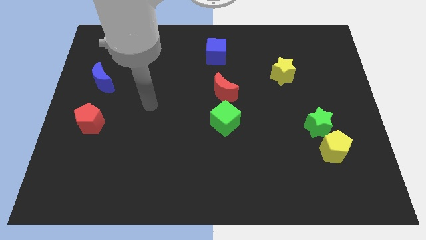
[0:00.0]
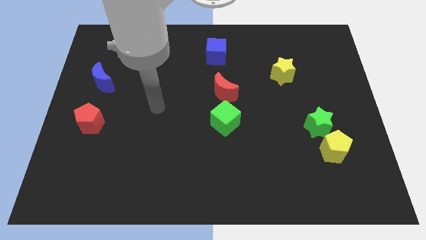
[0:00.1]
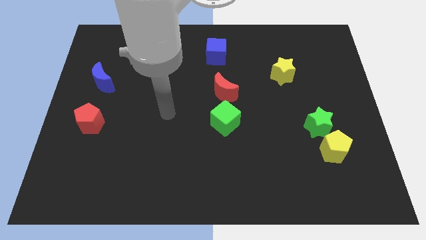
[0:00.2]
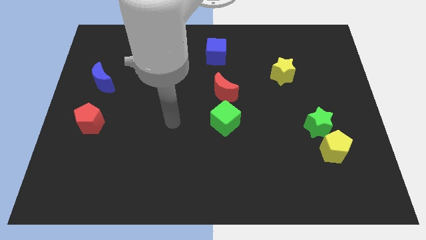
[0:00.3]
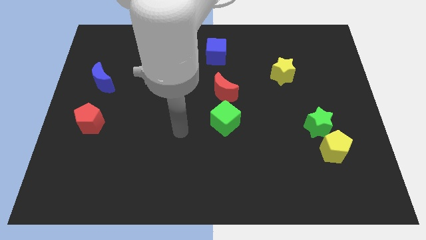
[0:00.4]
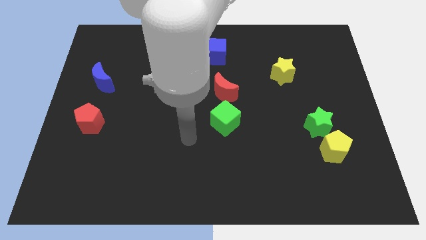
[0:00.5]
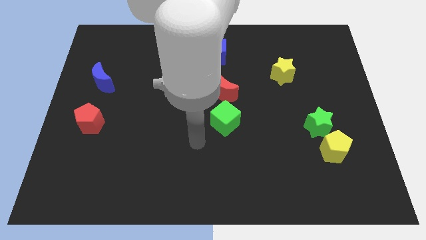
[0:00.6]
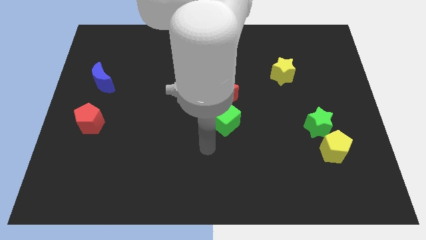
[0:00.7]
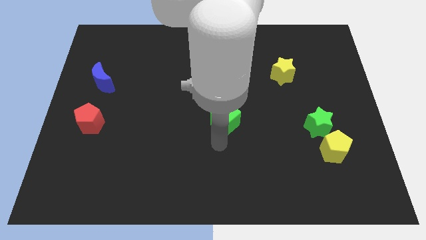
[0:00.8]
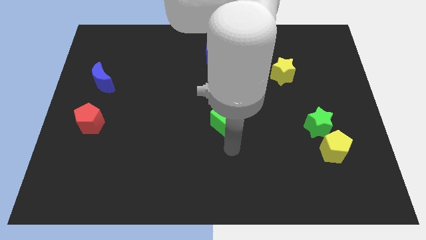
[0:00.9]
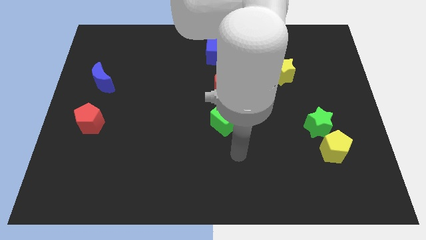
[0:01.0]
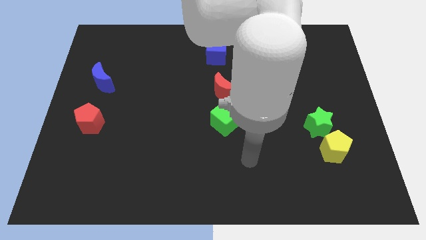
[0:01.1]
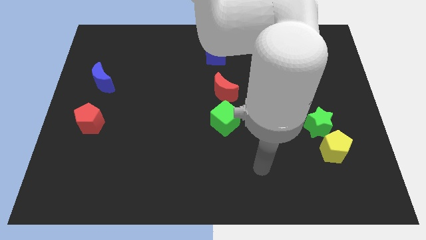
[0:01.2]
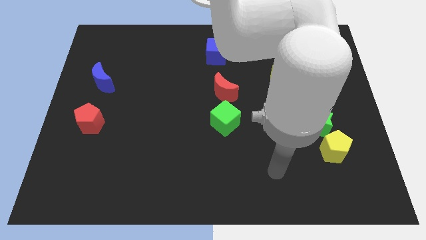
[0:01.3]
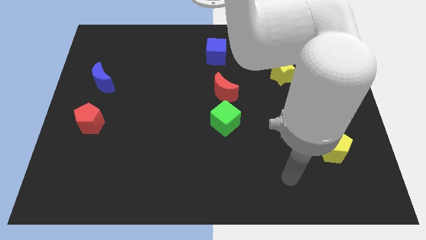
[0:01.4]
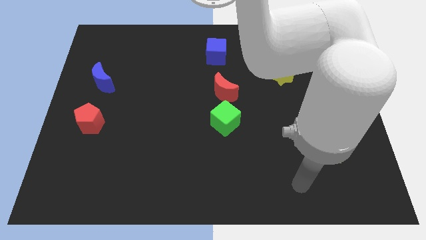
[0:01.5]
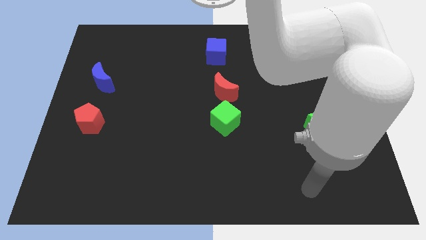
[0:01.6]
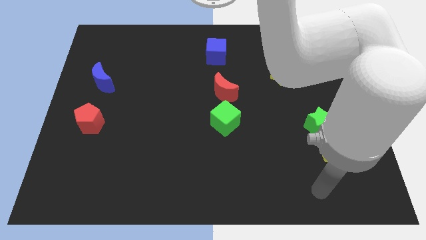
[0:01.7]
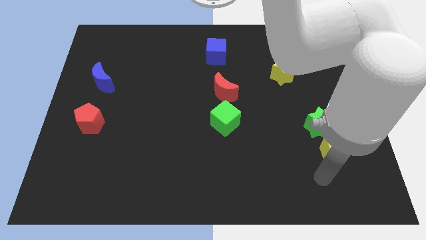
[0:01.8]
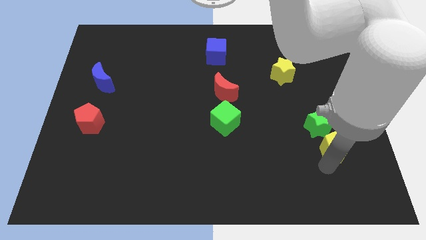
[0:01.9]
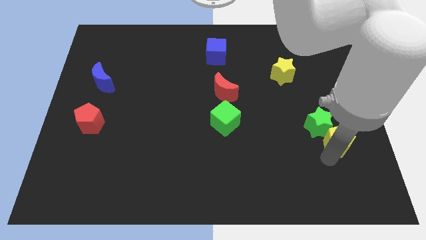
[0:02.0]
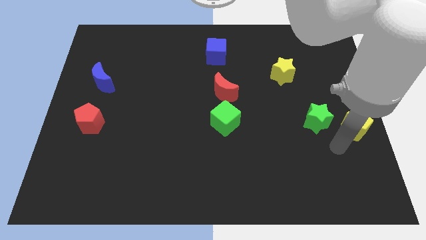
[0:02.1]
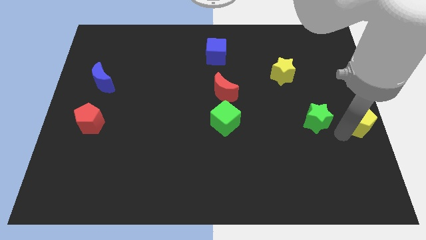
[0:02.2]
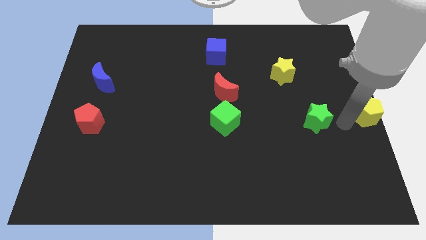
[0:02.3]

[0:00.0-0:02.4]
move the green star away from the yellow pentagon

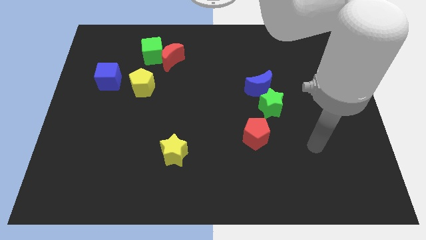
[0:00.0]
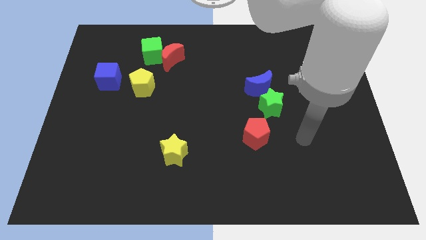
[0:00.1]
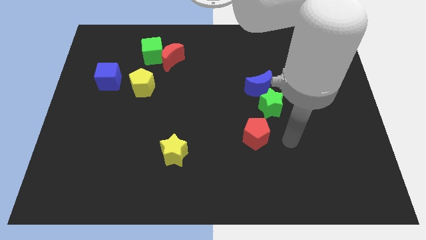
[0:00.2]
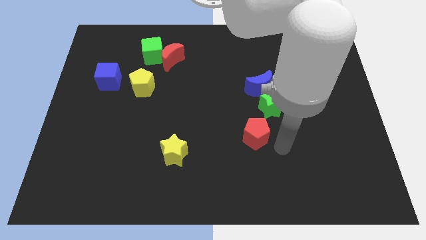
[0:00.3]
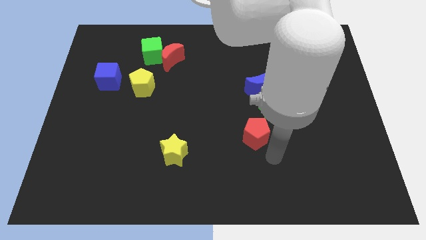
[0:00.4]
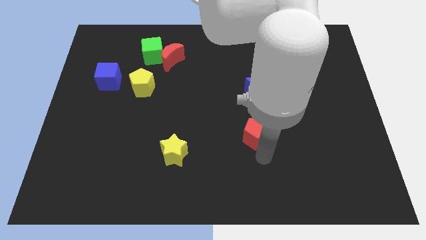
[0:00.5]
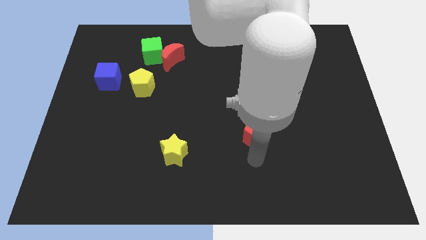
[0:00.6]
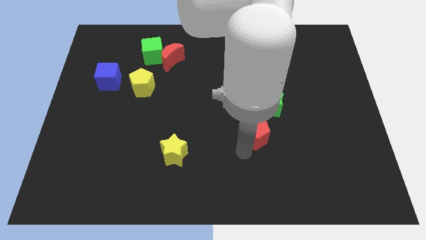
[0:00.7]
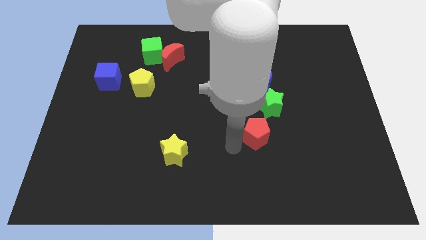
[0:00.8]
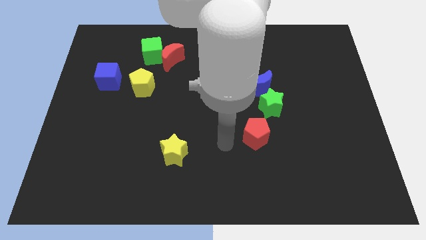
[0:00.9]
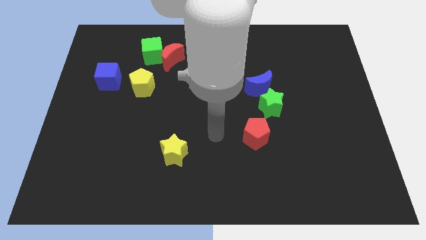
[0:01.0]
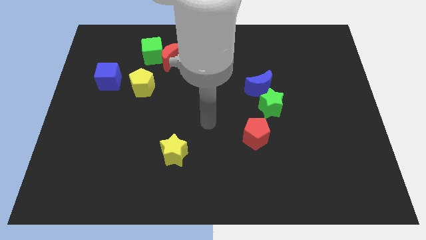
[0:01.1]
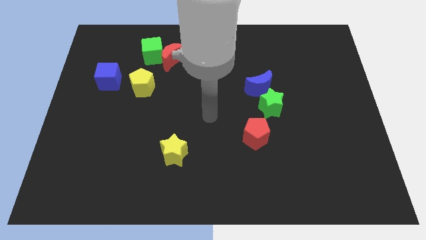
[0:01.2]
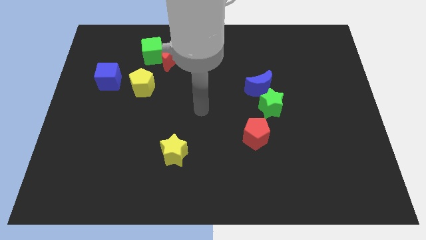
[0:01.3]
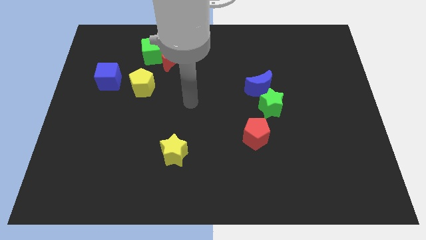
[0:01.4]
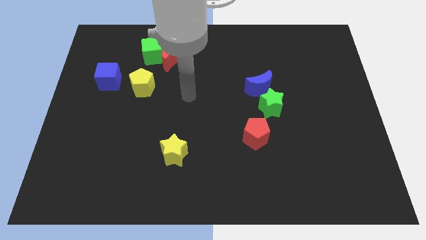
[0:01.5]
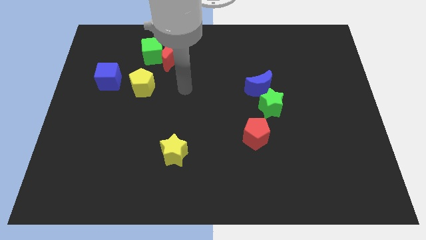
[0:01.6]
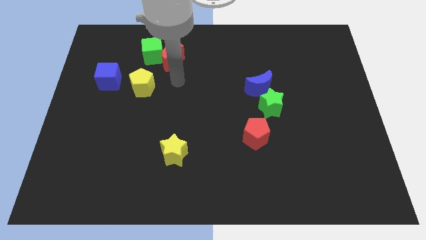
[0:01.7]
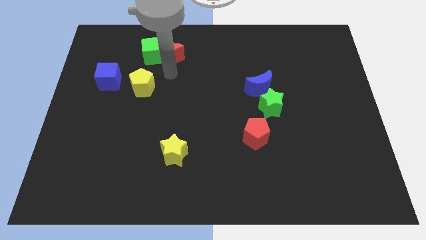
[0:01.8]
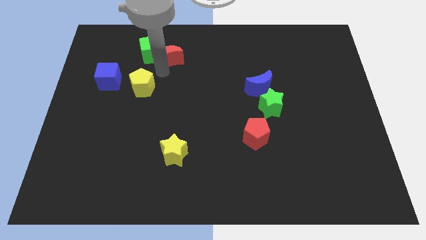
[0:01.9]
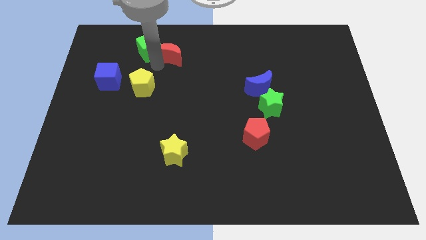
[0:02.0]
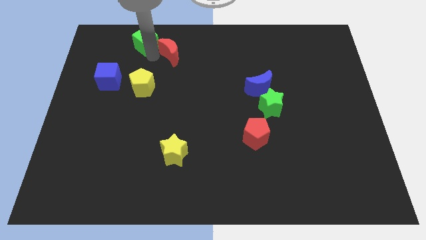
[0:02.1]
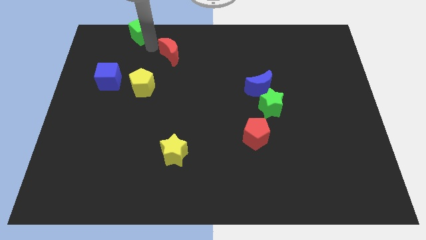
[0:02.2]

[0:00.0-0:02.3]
move the red moon away from the green cube

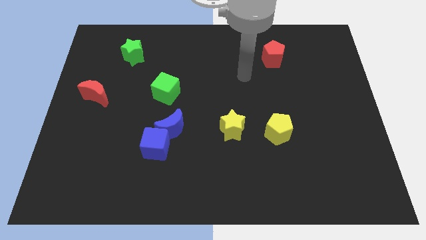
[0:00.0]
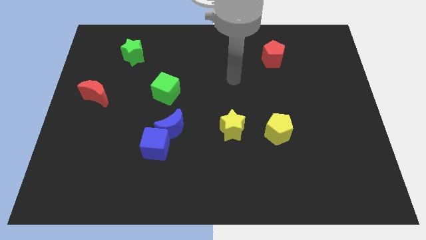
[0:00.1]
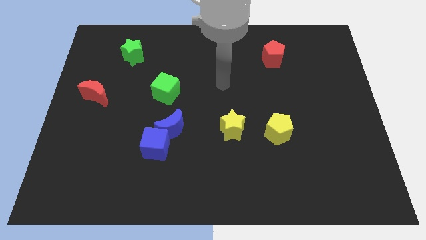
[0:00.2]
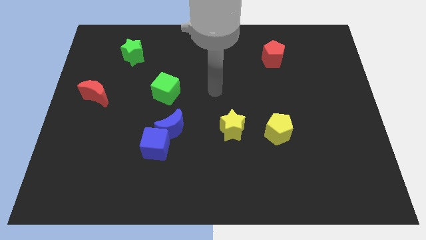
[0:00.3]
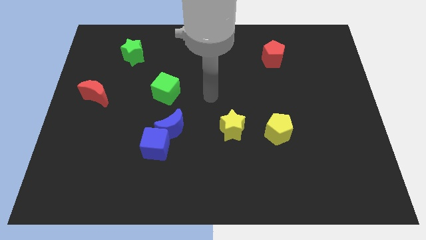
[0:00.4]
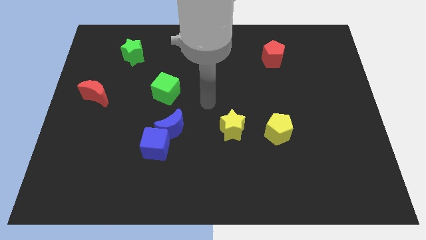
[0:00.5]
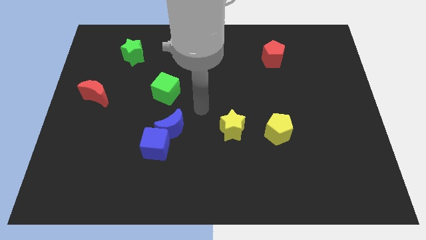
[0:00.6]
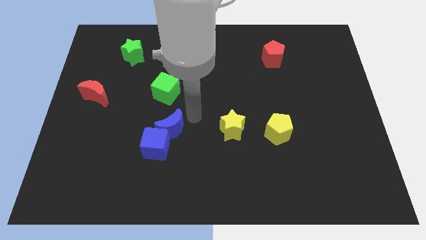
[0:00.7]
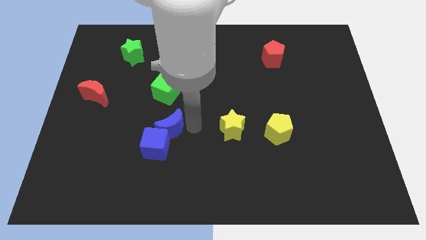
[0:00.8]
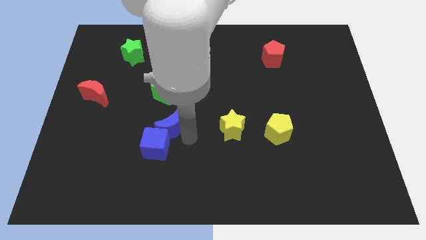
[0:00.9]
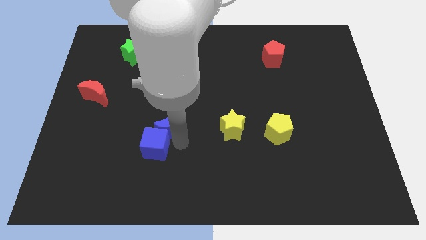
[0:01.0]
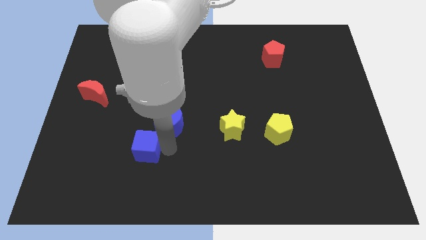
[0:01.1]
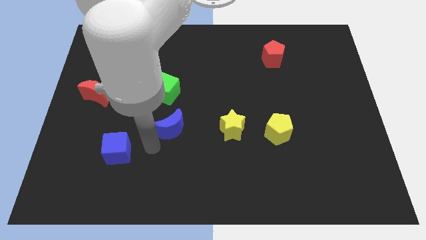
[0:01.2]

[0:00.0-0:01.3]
pull the blue moon apart from the blue cube

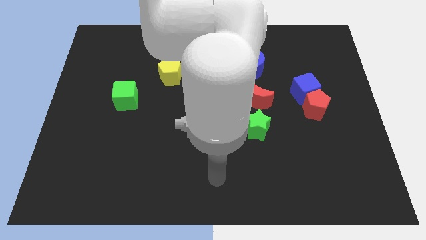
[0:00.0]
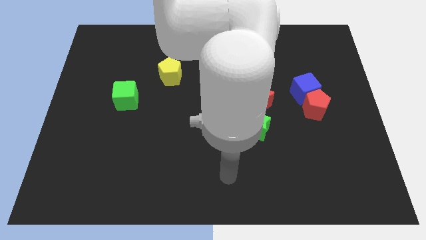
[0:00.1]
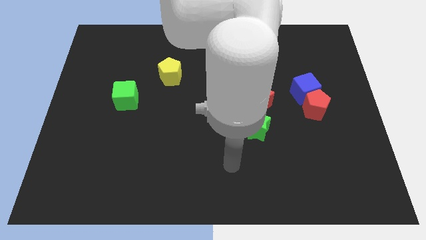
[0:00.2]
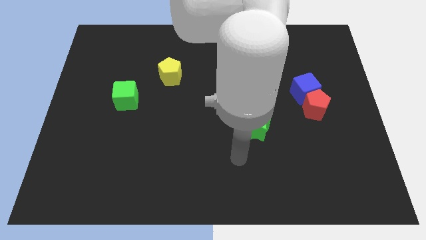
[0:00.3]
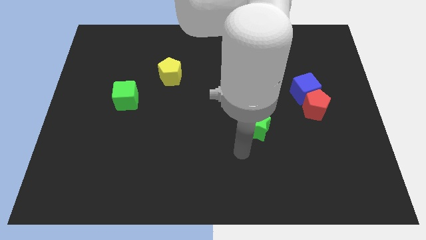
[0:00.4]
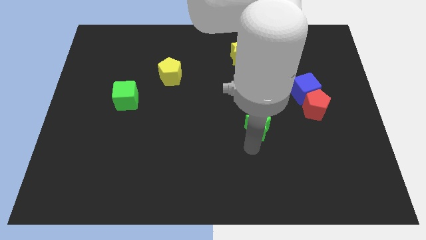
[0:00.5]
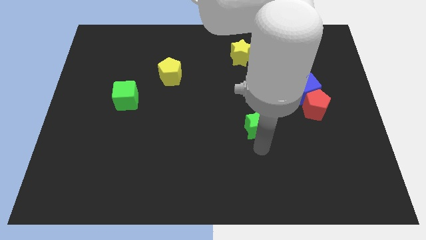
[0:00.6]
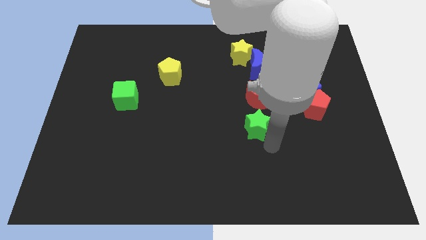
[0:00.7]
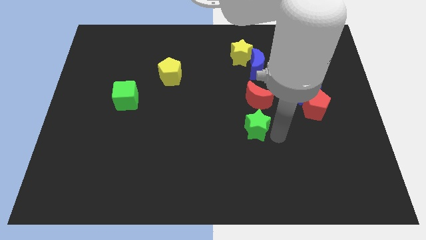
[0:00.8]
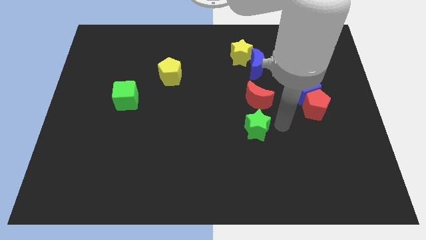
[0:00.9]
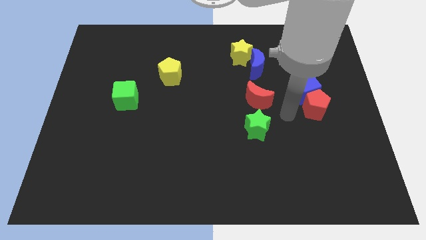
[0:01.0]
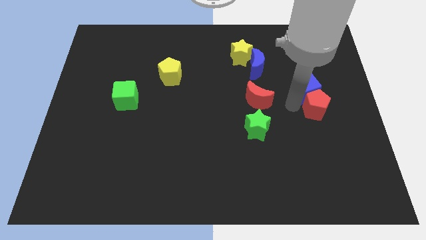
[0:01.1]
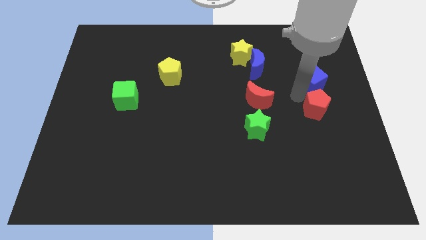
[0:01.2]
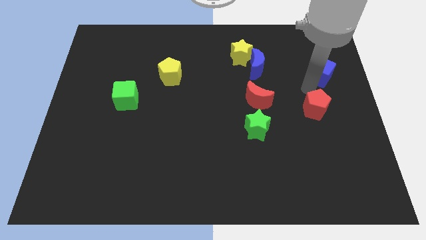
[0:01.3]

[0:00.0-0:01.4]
separate the red pentagon from the blue cube

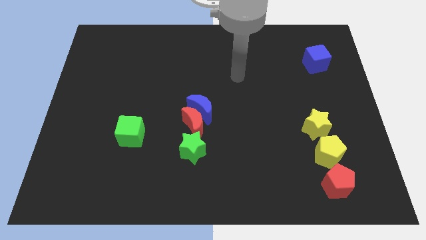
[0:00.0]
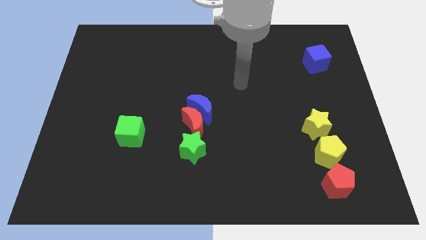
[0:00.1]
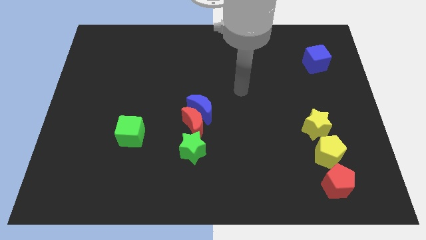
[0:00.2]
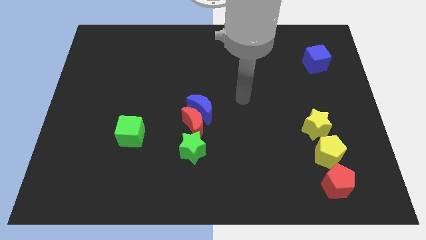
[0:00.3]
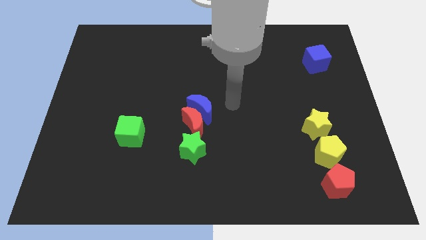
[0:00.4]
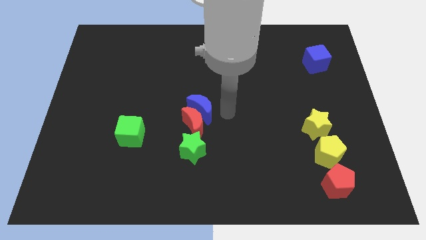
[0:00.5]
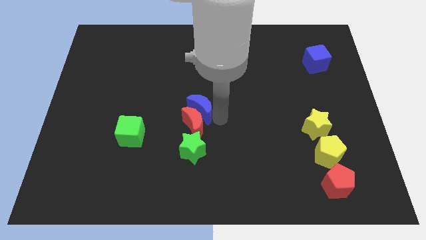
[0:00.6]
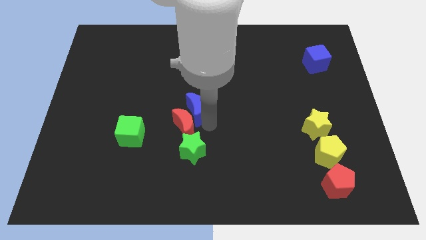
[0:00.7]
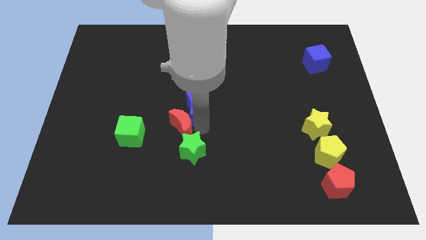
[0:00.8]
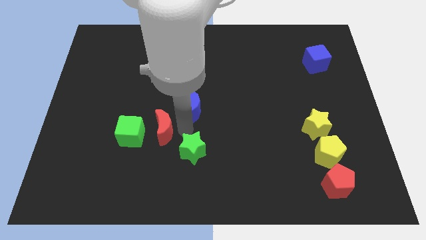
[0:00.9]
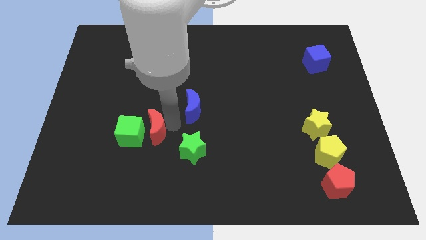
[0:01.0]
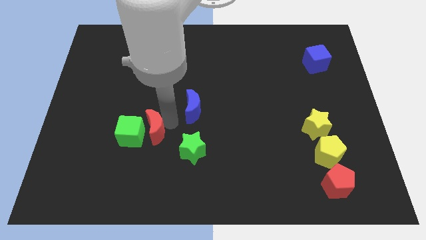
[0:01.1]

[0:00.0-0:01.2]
pull the blue moon apart from the red moon

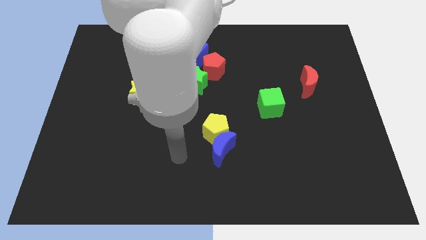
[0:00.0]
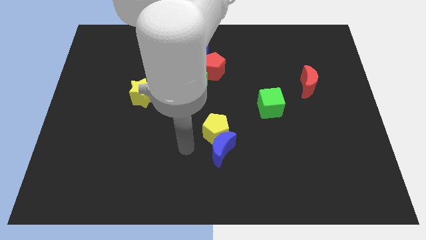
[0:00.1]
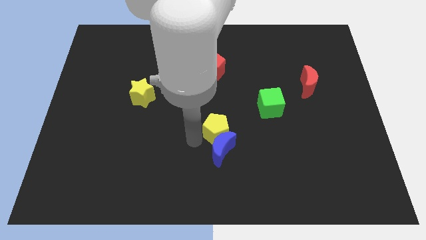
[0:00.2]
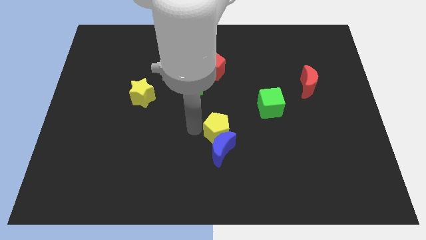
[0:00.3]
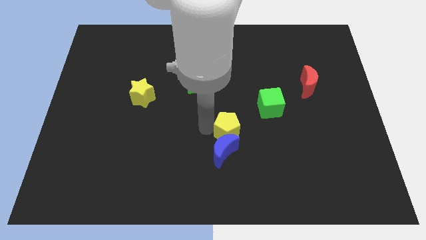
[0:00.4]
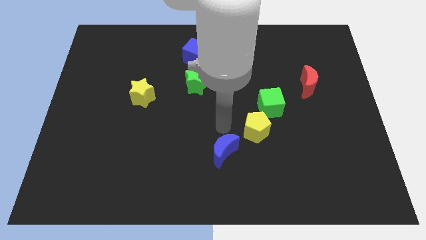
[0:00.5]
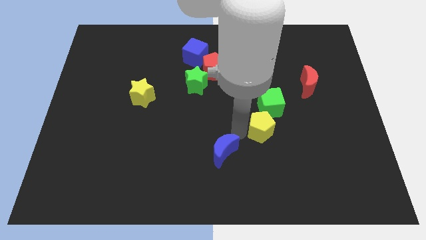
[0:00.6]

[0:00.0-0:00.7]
move the blue moon away from the yellow pentagon

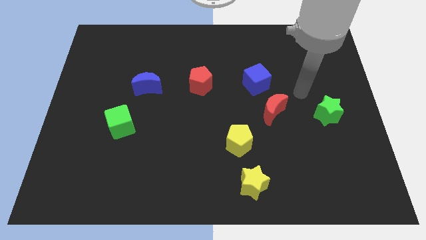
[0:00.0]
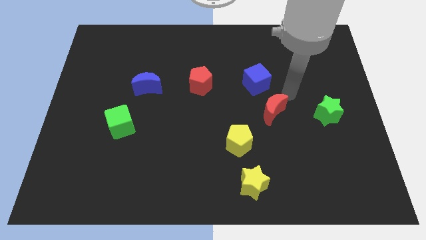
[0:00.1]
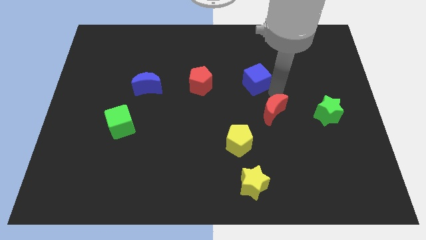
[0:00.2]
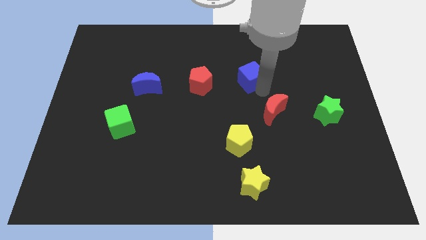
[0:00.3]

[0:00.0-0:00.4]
move the red moon away from the blue cube
